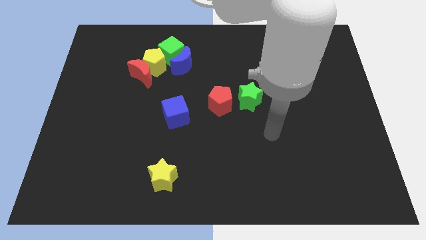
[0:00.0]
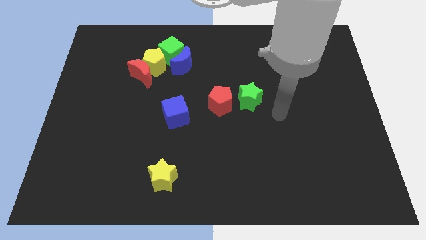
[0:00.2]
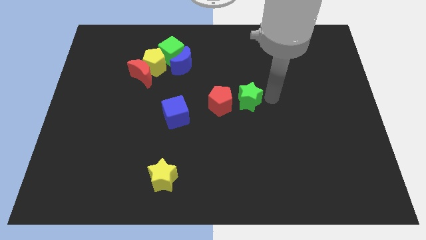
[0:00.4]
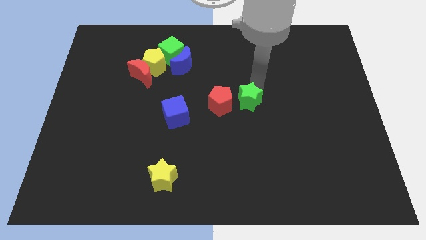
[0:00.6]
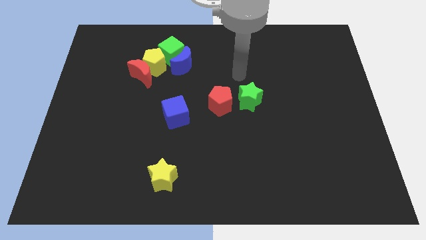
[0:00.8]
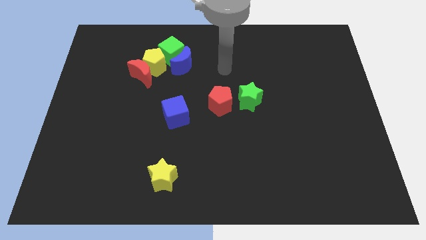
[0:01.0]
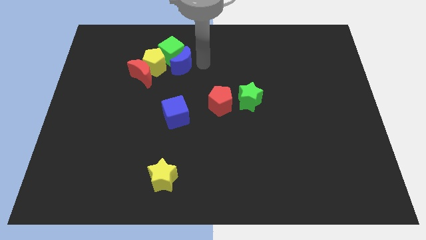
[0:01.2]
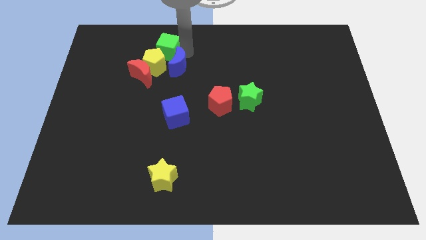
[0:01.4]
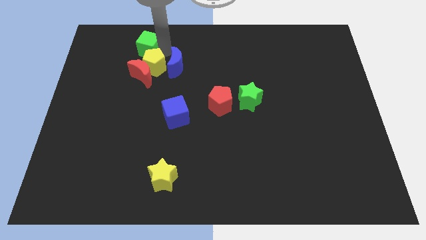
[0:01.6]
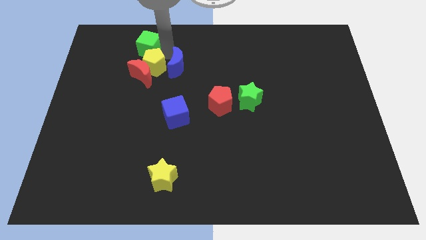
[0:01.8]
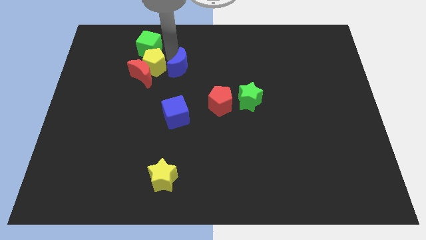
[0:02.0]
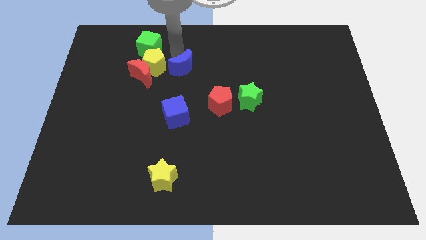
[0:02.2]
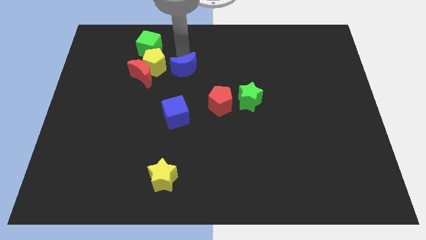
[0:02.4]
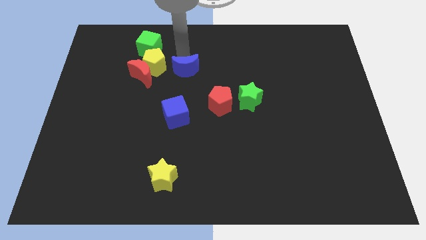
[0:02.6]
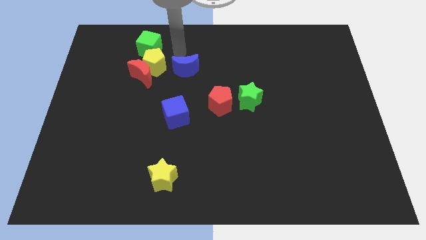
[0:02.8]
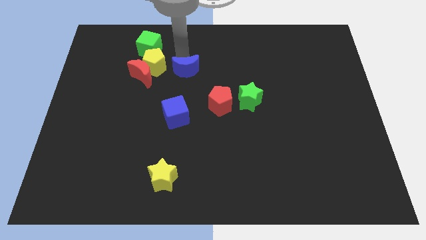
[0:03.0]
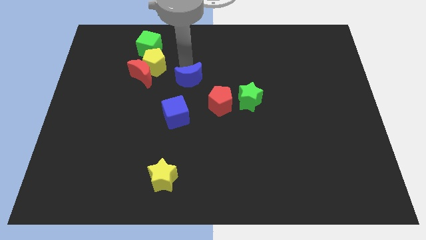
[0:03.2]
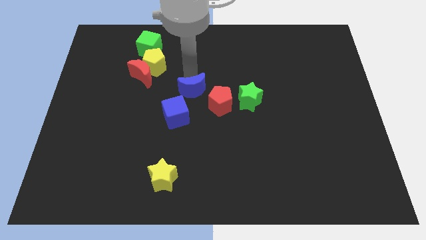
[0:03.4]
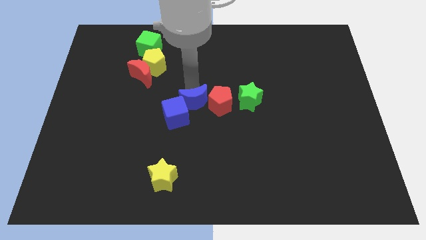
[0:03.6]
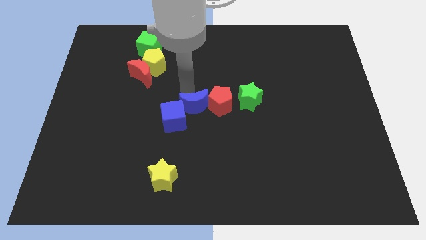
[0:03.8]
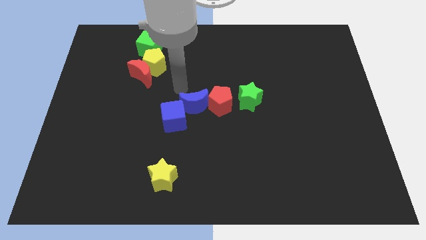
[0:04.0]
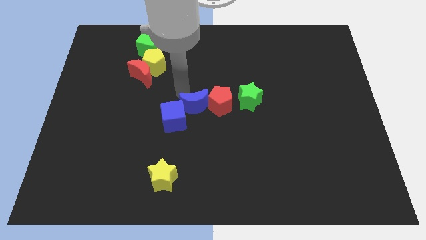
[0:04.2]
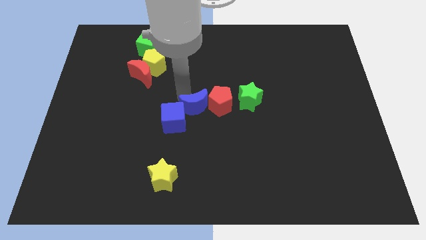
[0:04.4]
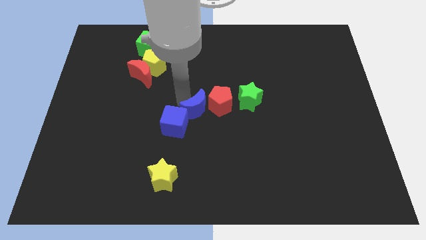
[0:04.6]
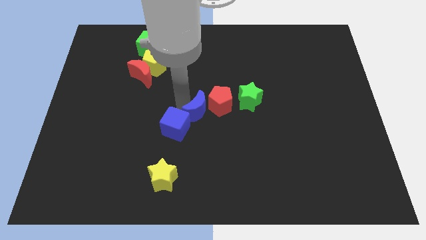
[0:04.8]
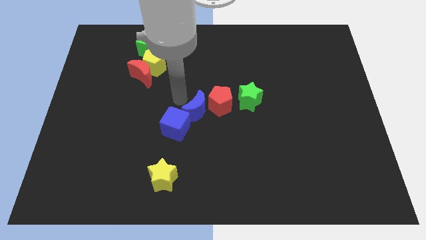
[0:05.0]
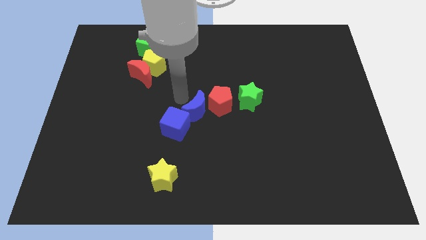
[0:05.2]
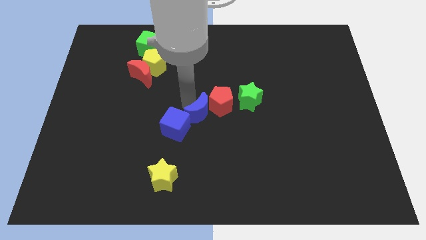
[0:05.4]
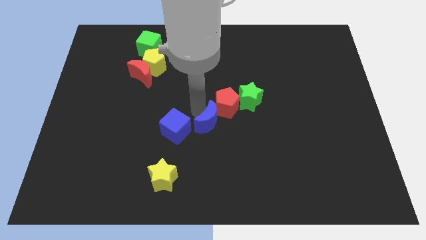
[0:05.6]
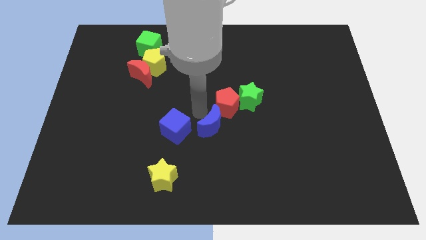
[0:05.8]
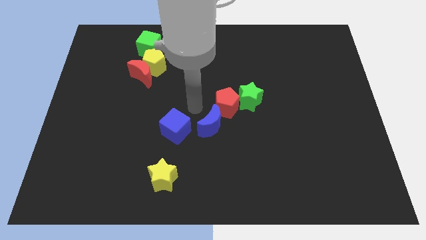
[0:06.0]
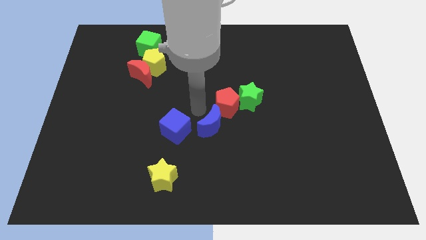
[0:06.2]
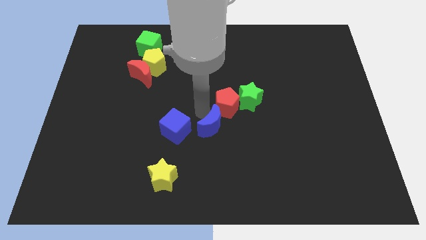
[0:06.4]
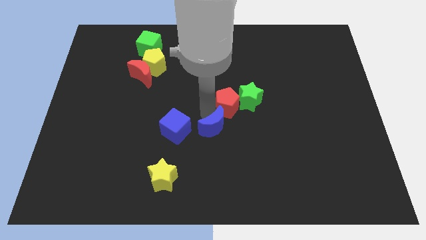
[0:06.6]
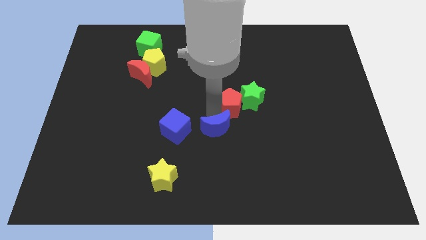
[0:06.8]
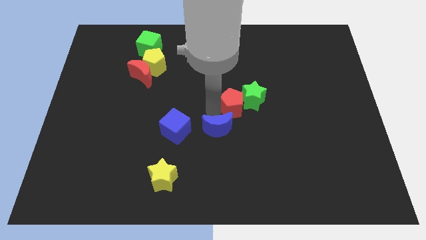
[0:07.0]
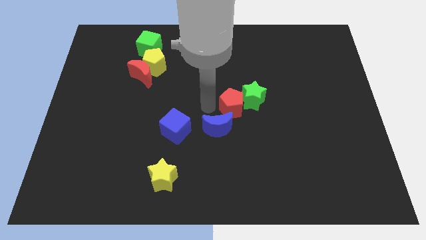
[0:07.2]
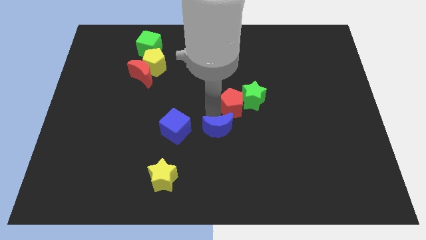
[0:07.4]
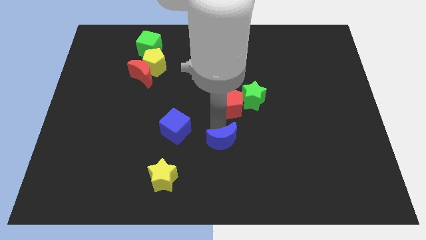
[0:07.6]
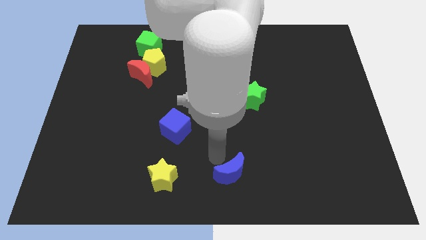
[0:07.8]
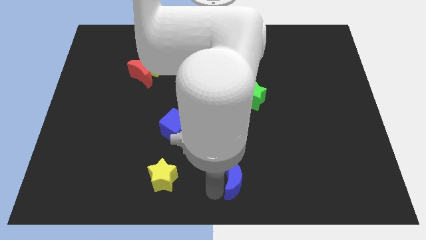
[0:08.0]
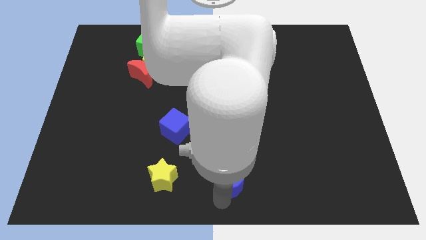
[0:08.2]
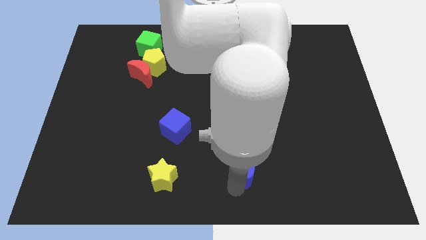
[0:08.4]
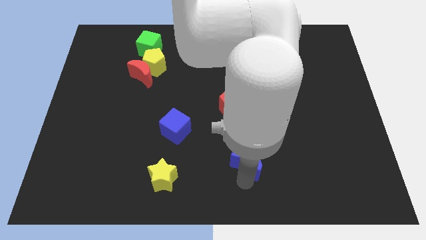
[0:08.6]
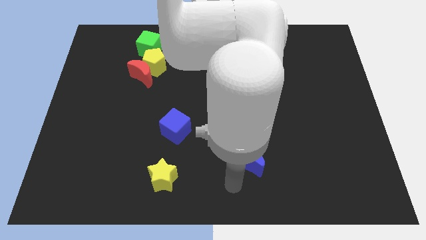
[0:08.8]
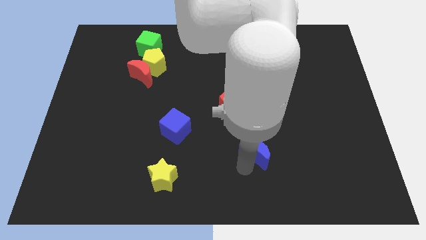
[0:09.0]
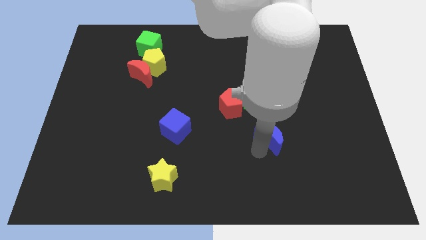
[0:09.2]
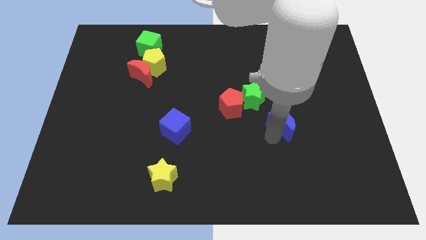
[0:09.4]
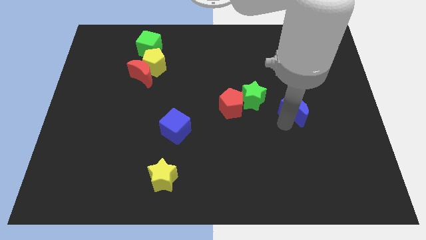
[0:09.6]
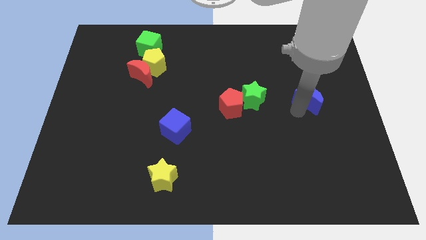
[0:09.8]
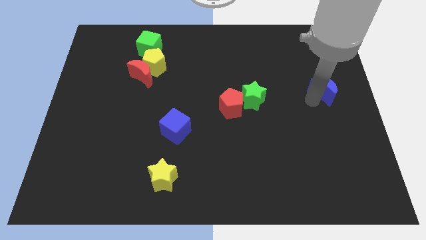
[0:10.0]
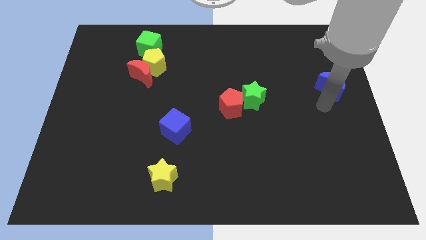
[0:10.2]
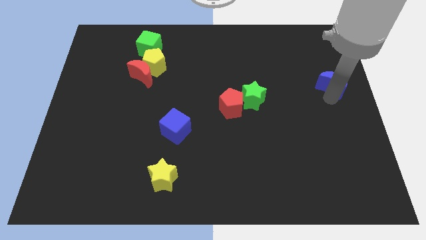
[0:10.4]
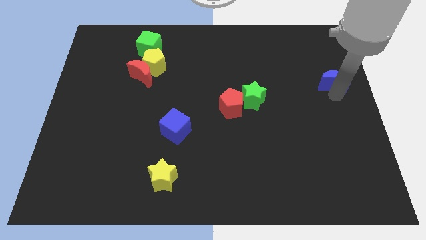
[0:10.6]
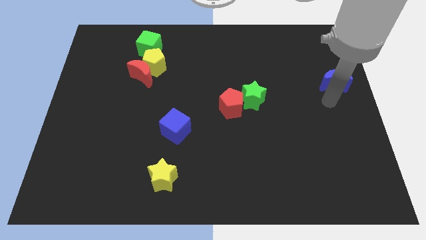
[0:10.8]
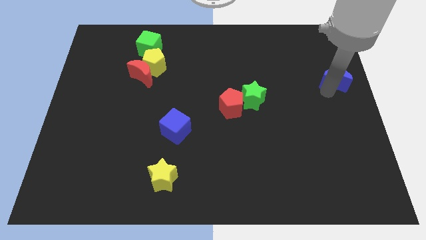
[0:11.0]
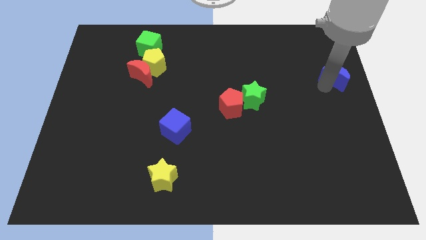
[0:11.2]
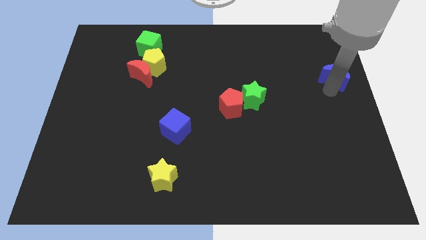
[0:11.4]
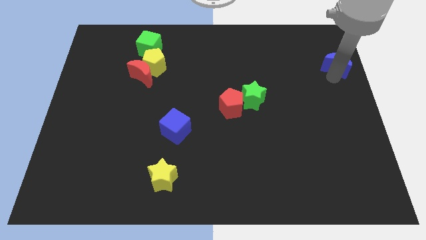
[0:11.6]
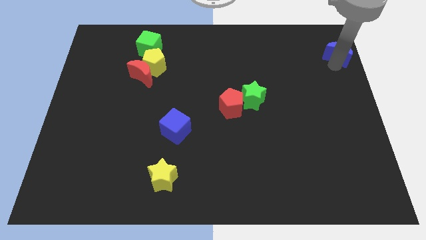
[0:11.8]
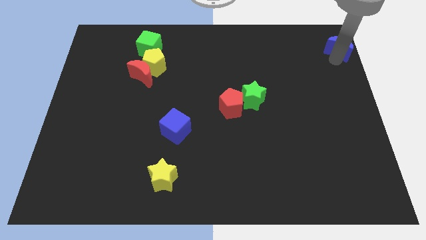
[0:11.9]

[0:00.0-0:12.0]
put the blue moon to the top right of the board
